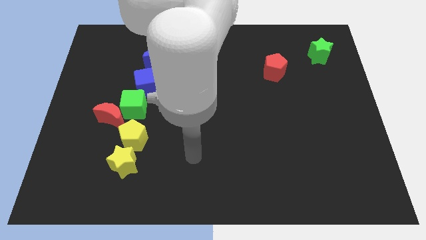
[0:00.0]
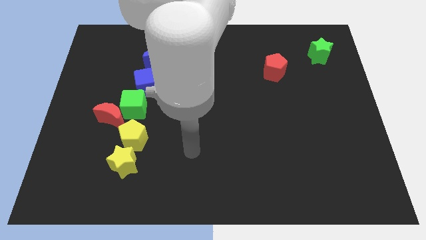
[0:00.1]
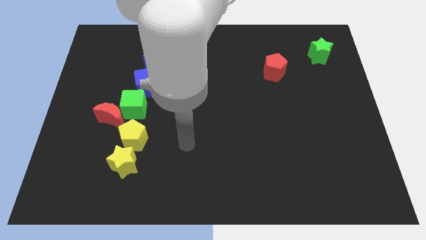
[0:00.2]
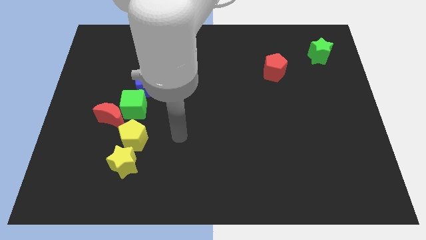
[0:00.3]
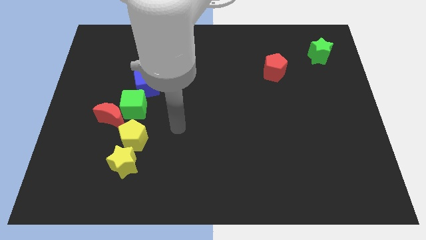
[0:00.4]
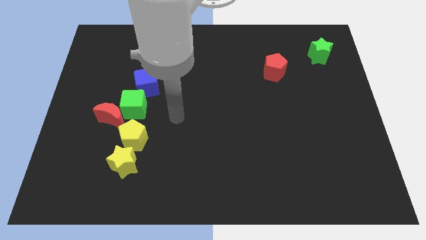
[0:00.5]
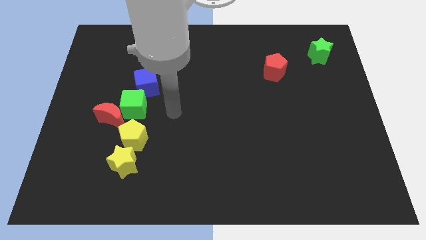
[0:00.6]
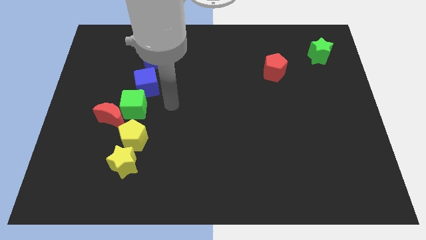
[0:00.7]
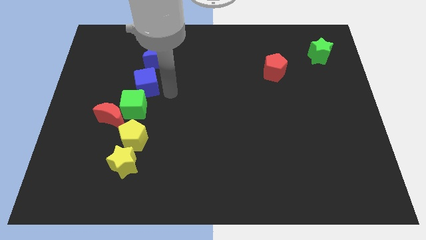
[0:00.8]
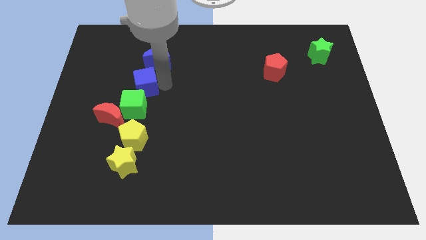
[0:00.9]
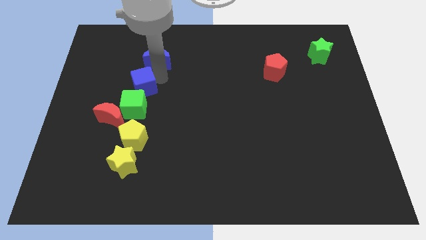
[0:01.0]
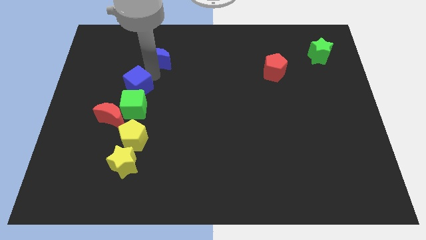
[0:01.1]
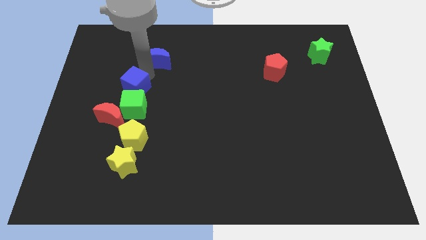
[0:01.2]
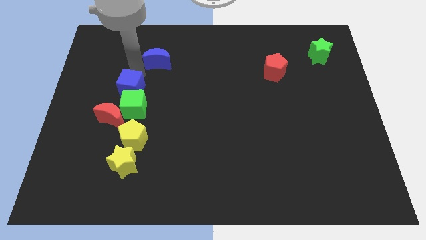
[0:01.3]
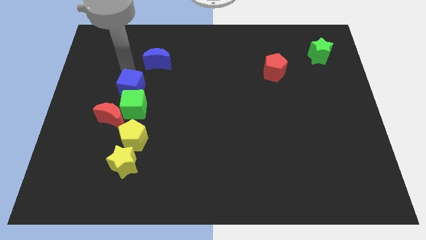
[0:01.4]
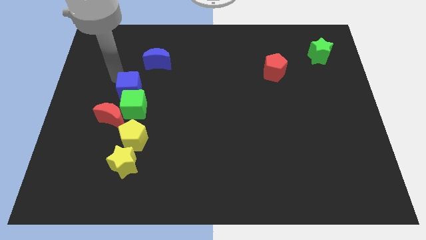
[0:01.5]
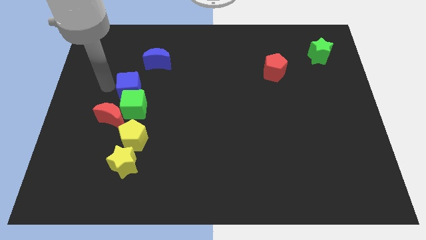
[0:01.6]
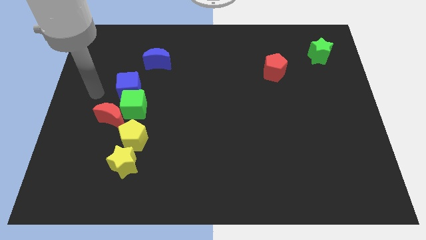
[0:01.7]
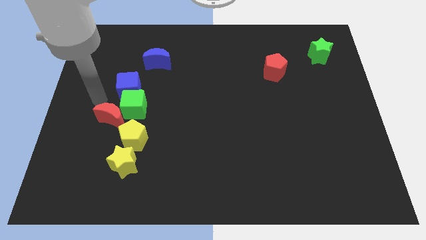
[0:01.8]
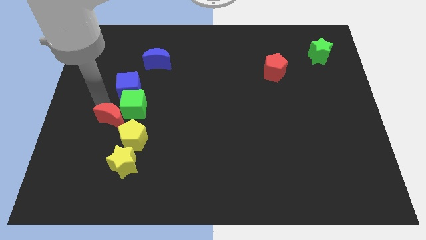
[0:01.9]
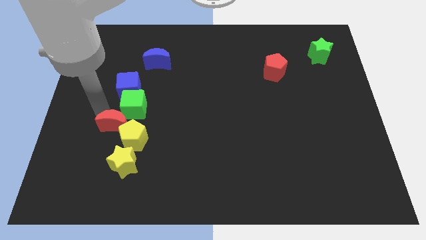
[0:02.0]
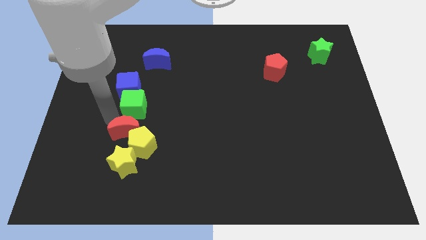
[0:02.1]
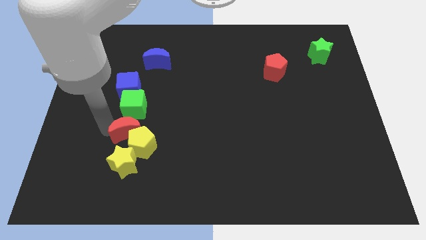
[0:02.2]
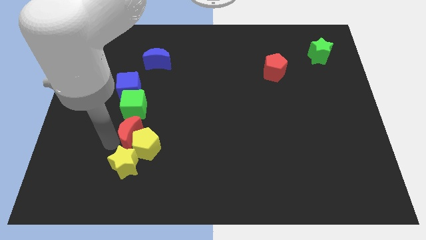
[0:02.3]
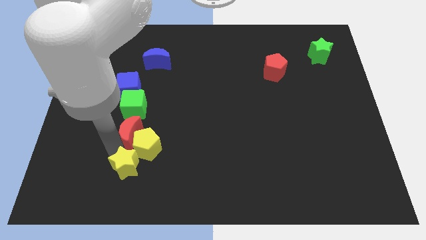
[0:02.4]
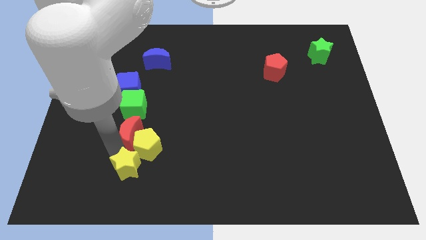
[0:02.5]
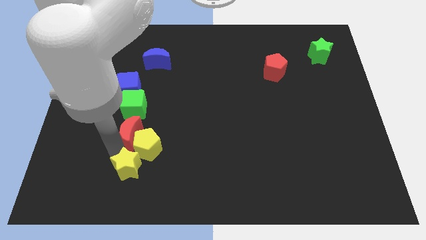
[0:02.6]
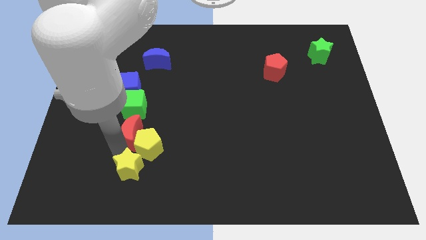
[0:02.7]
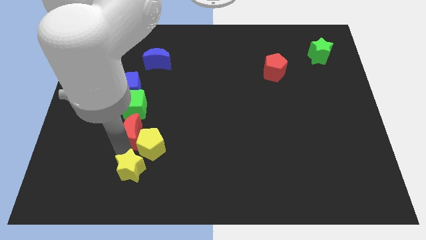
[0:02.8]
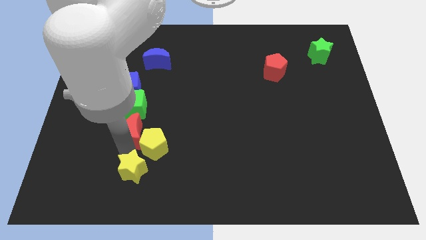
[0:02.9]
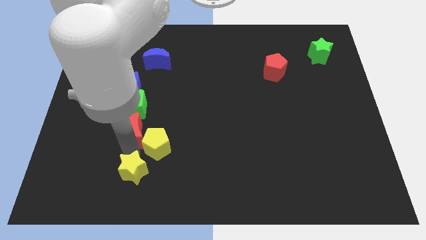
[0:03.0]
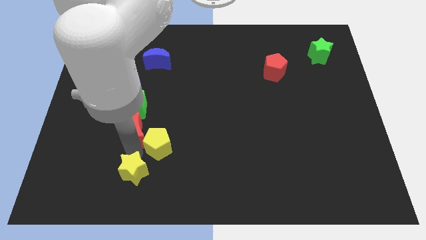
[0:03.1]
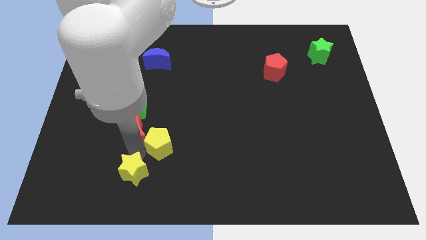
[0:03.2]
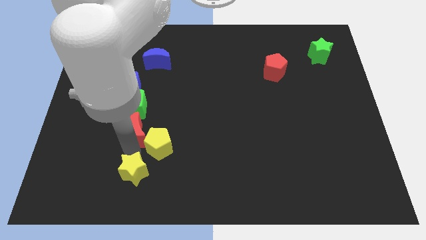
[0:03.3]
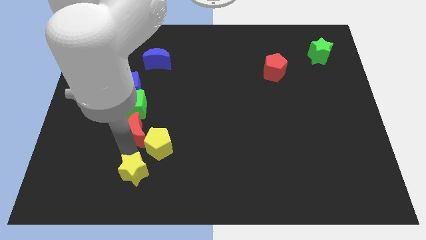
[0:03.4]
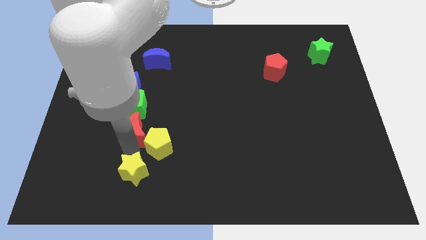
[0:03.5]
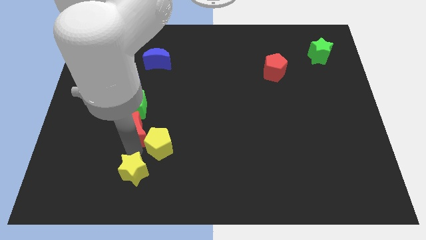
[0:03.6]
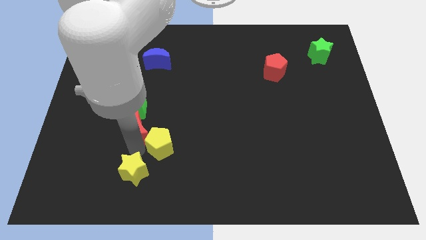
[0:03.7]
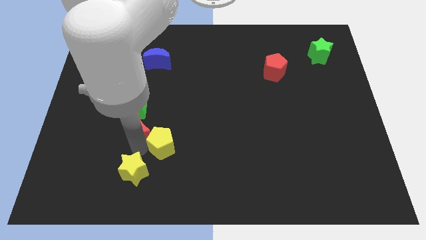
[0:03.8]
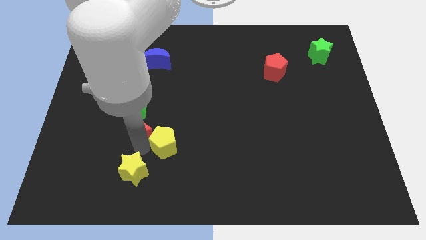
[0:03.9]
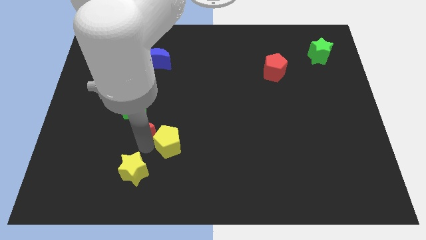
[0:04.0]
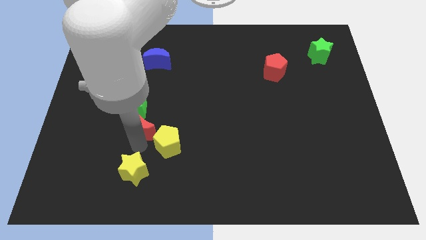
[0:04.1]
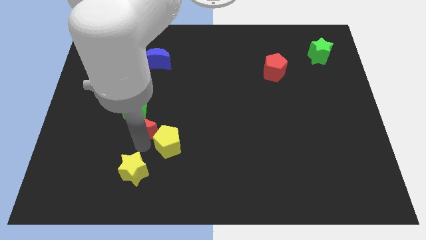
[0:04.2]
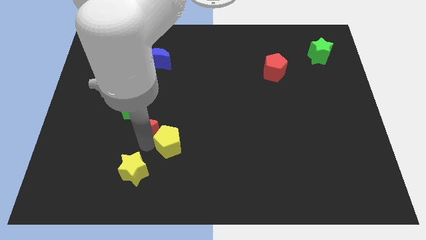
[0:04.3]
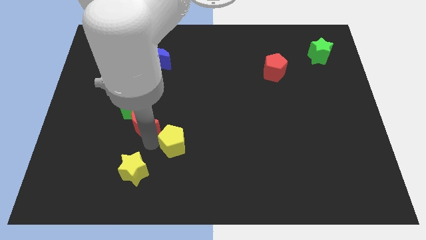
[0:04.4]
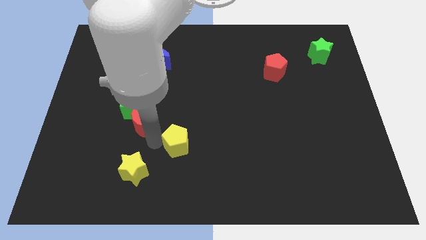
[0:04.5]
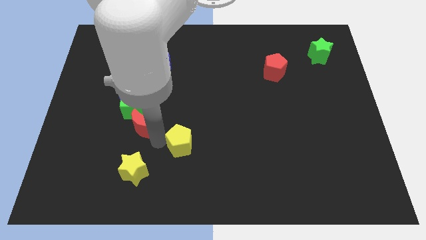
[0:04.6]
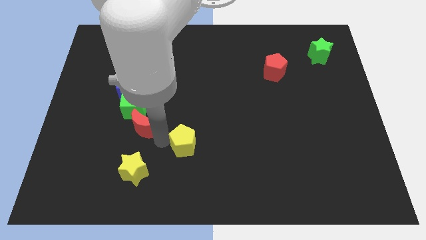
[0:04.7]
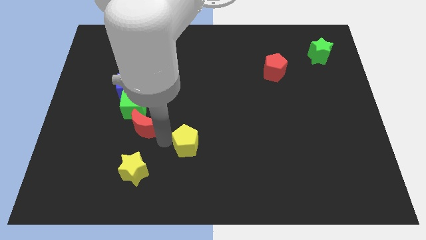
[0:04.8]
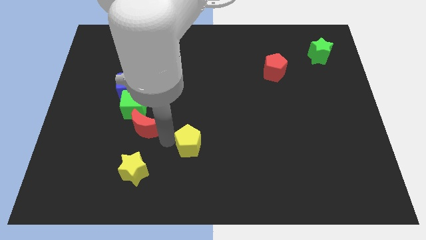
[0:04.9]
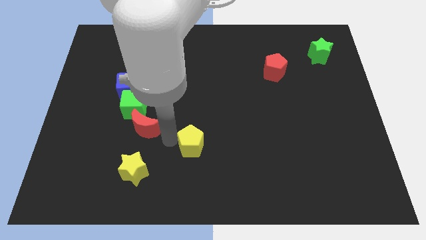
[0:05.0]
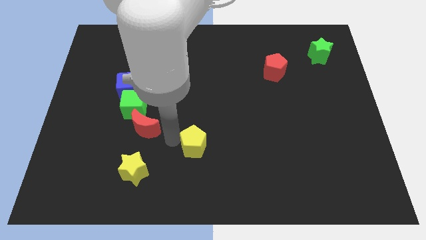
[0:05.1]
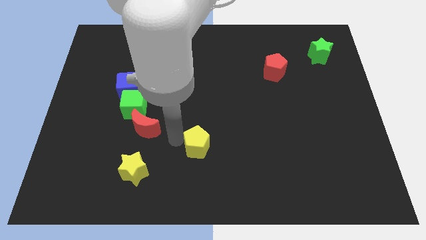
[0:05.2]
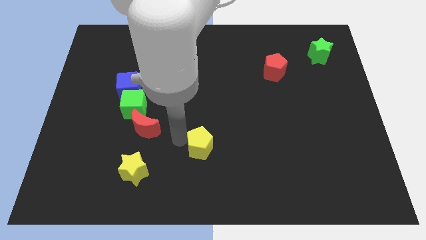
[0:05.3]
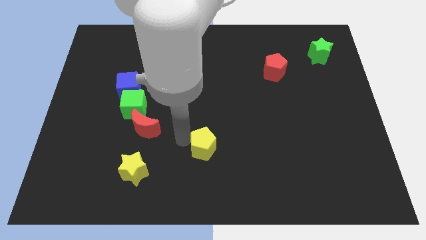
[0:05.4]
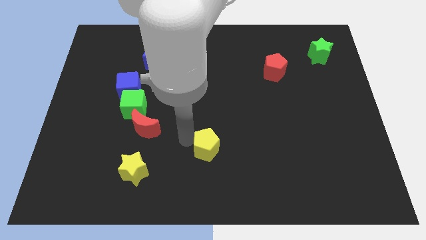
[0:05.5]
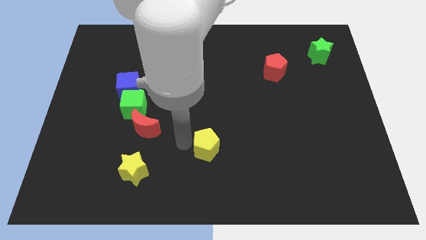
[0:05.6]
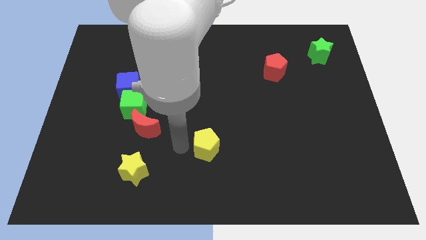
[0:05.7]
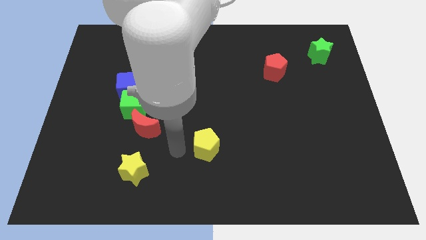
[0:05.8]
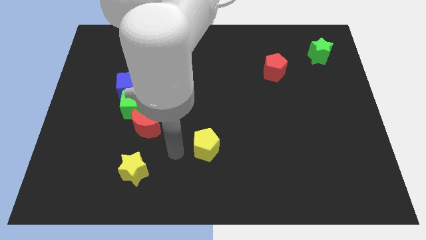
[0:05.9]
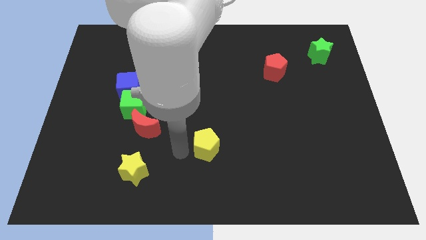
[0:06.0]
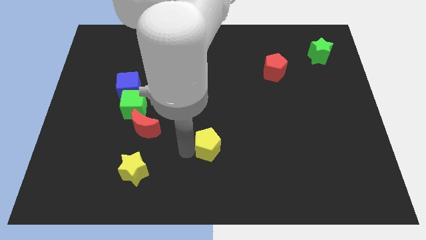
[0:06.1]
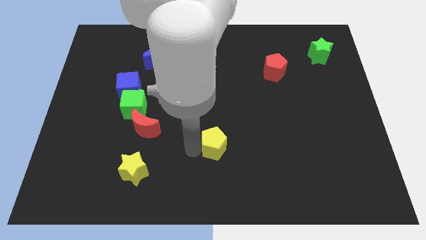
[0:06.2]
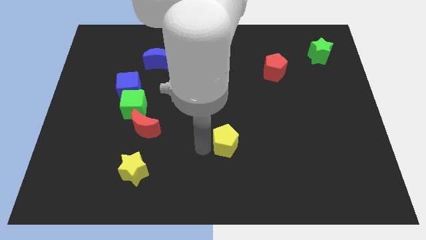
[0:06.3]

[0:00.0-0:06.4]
move the yellow pentagon to the right

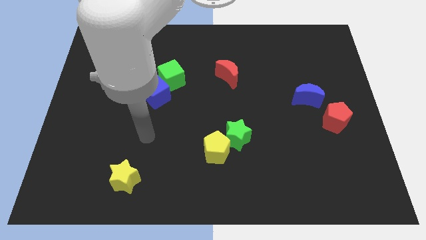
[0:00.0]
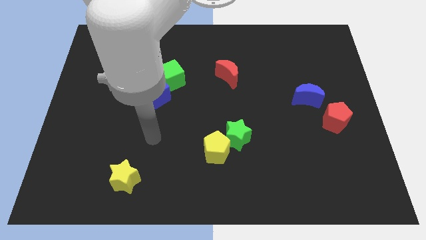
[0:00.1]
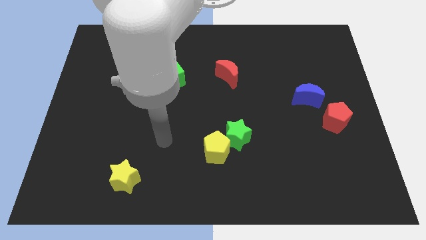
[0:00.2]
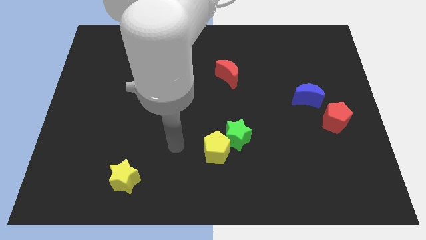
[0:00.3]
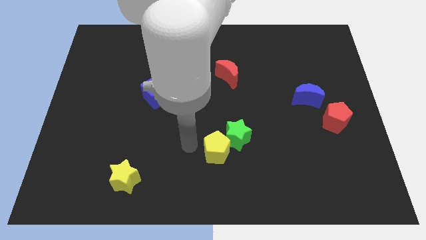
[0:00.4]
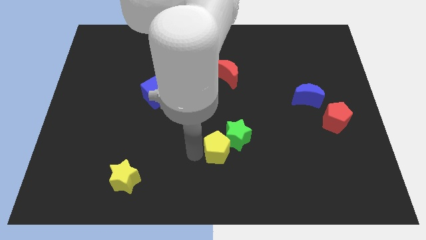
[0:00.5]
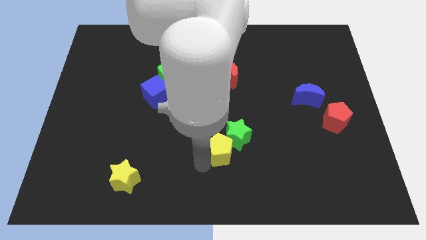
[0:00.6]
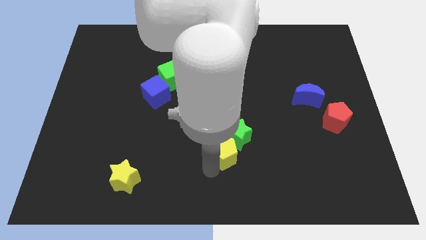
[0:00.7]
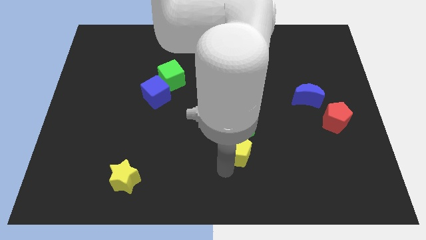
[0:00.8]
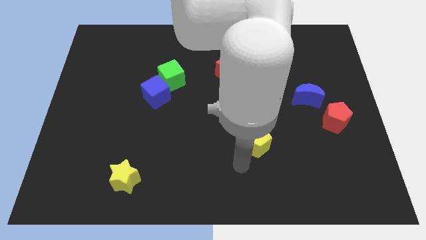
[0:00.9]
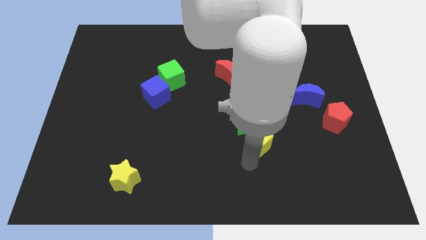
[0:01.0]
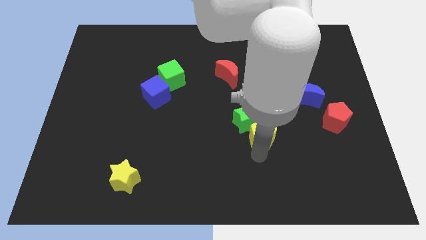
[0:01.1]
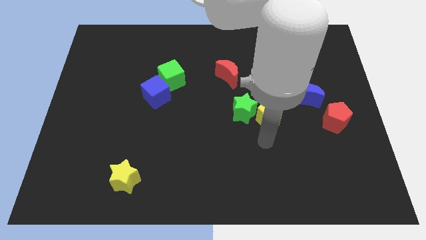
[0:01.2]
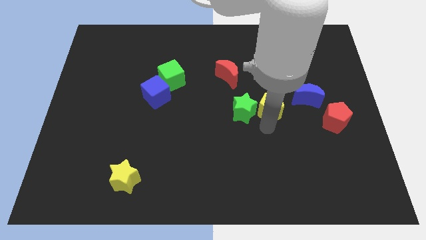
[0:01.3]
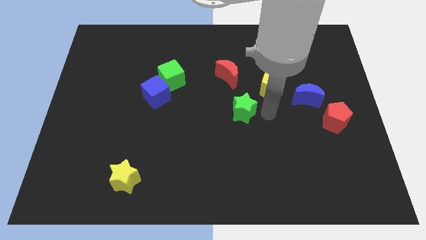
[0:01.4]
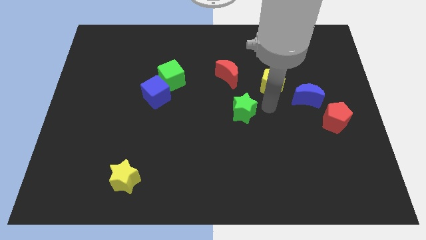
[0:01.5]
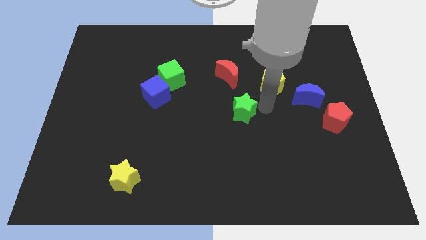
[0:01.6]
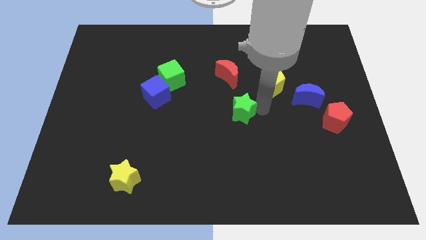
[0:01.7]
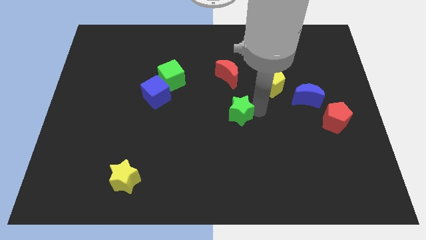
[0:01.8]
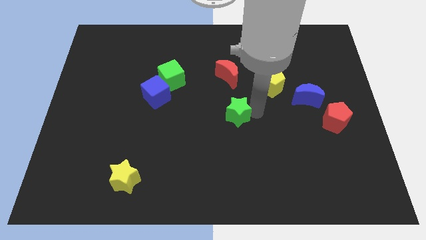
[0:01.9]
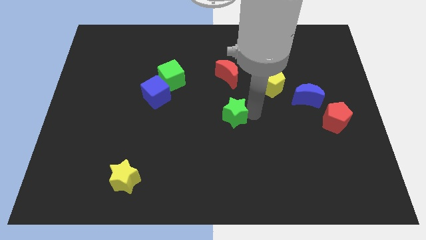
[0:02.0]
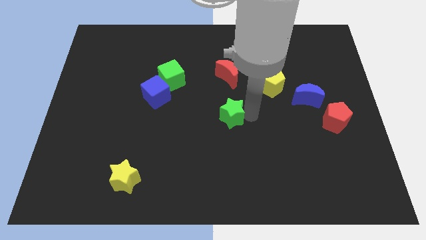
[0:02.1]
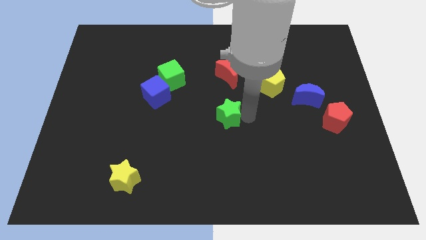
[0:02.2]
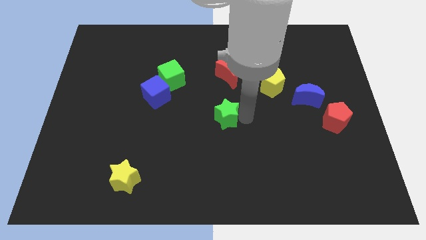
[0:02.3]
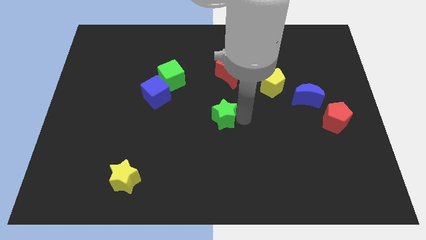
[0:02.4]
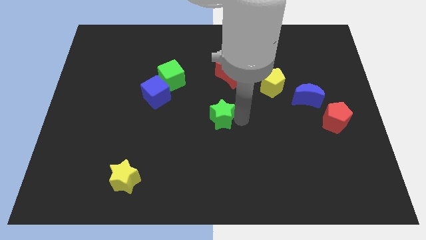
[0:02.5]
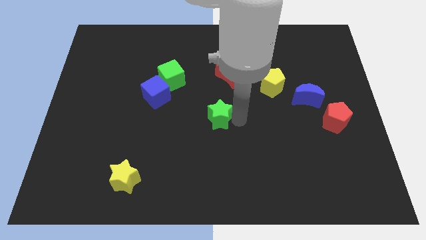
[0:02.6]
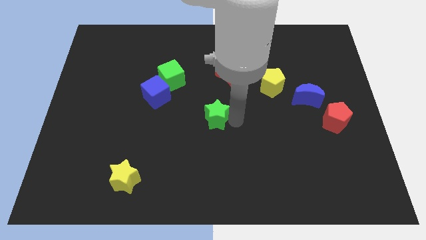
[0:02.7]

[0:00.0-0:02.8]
slide the green star diagonally upwards and left a bit
